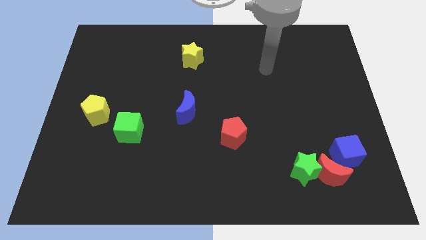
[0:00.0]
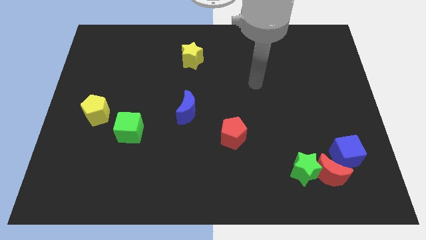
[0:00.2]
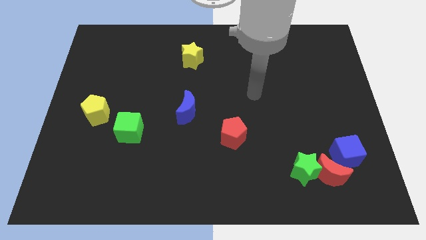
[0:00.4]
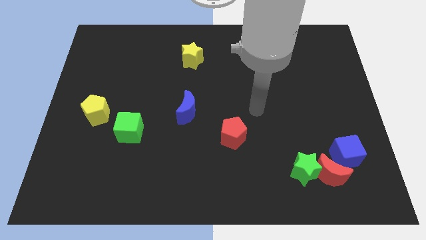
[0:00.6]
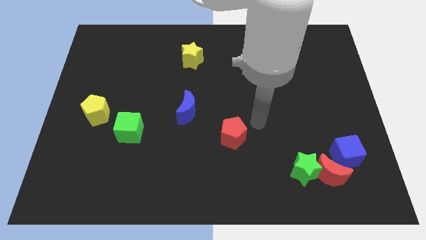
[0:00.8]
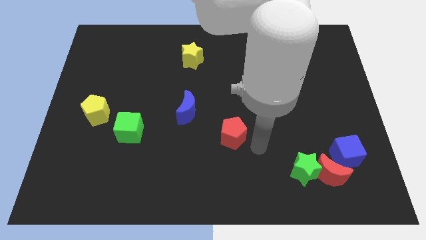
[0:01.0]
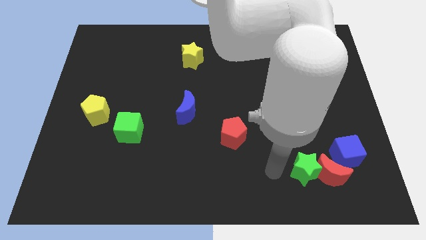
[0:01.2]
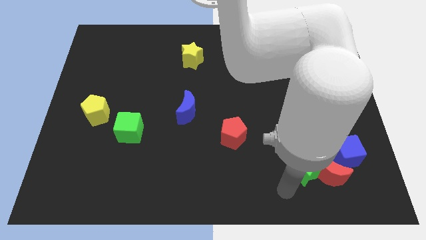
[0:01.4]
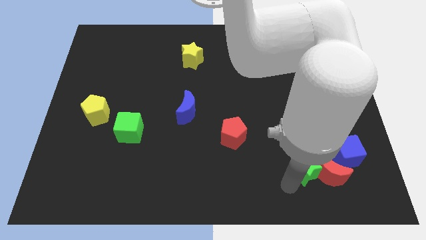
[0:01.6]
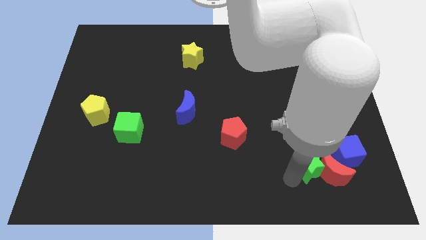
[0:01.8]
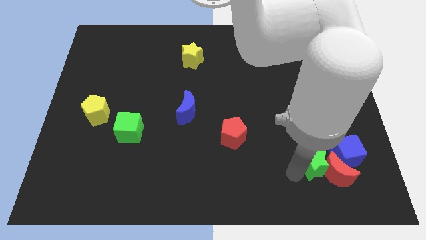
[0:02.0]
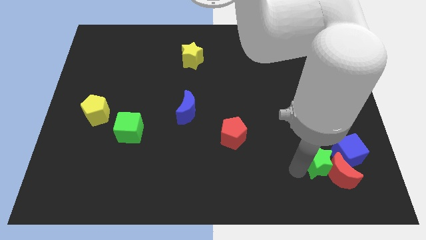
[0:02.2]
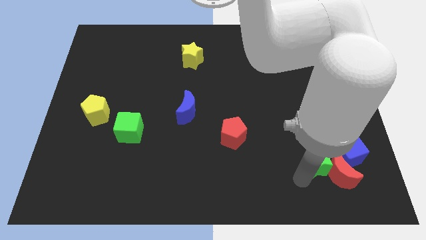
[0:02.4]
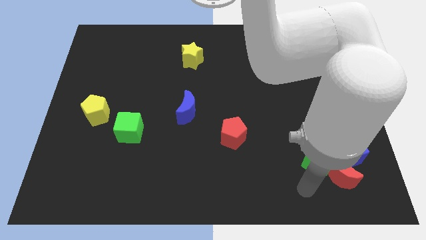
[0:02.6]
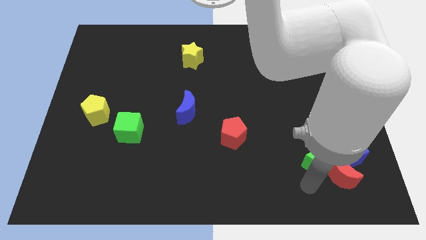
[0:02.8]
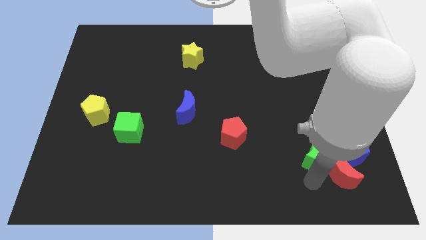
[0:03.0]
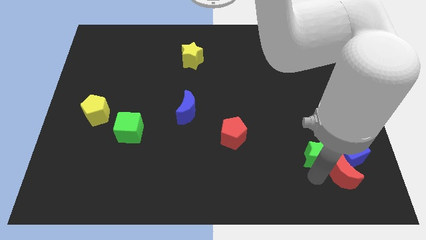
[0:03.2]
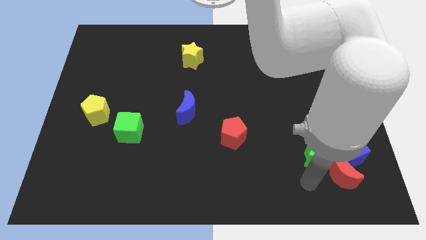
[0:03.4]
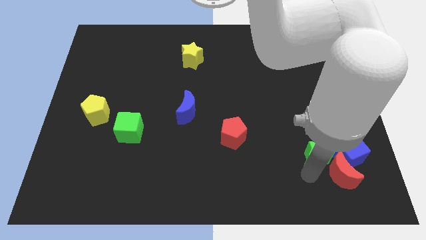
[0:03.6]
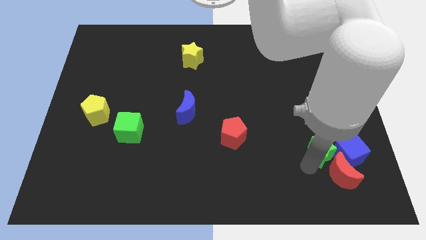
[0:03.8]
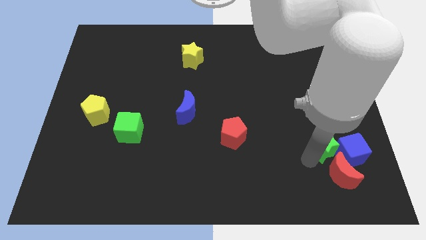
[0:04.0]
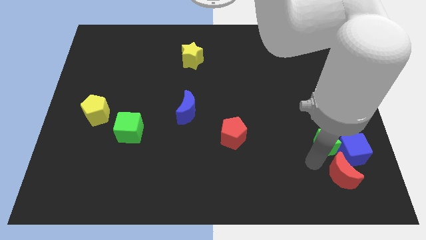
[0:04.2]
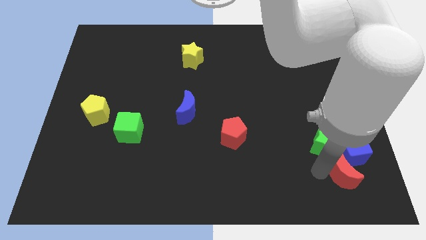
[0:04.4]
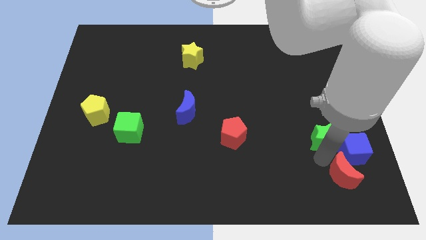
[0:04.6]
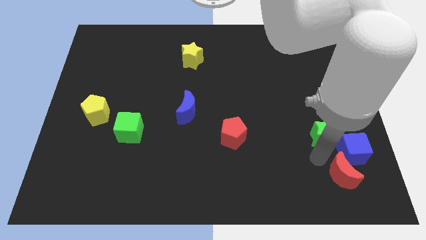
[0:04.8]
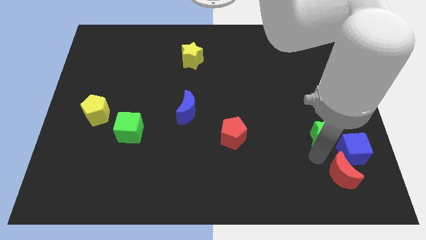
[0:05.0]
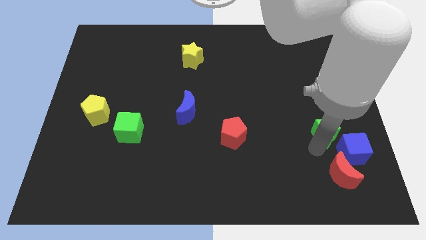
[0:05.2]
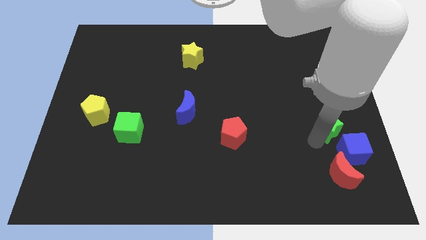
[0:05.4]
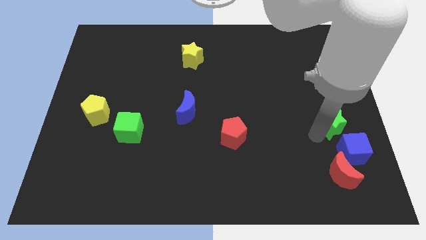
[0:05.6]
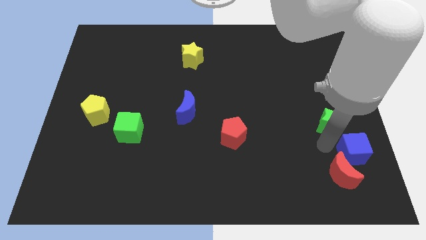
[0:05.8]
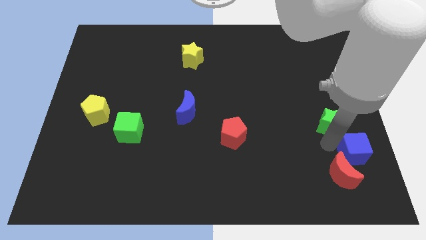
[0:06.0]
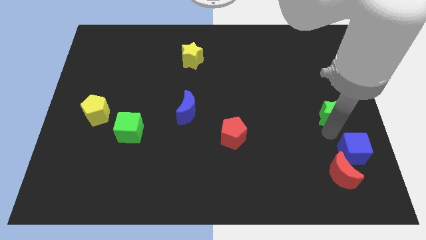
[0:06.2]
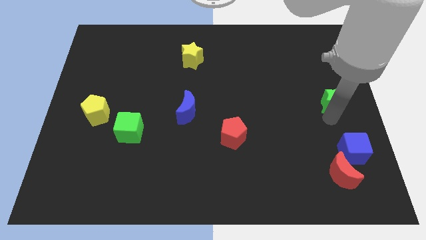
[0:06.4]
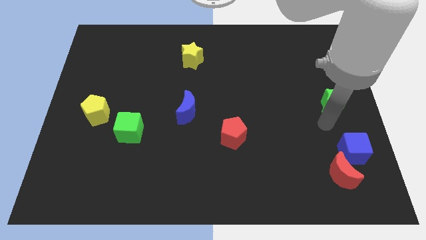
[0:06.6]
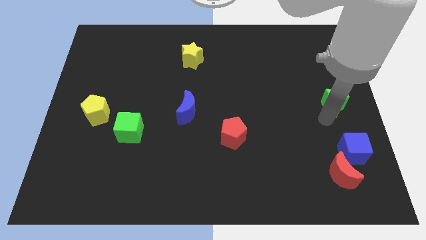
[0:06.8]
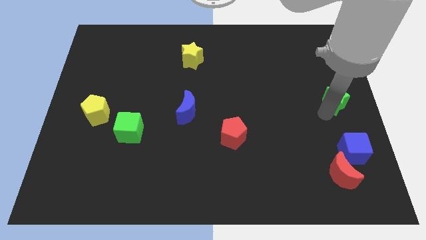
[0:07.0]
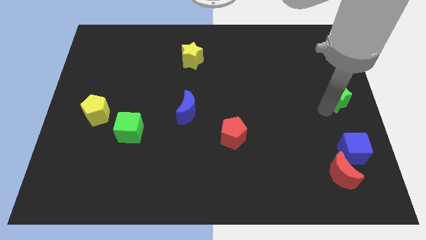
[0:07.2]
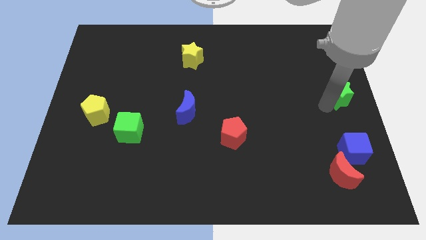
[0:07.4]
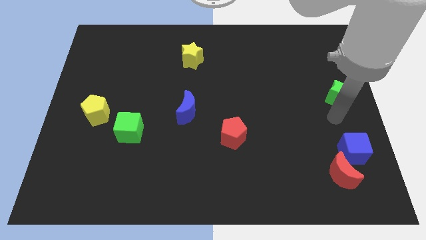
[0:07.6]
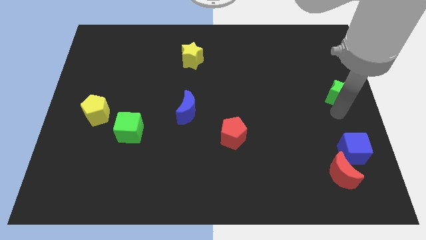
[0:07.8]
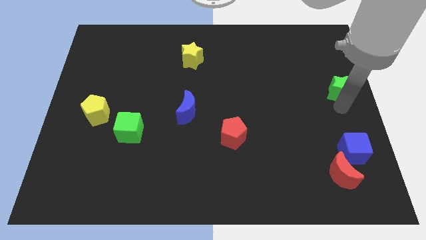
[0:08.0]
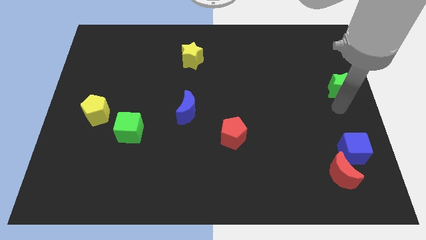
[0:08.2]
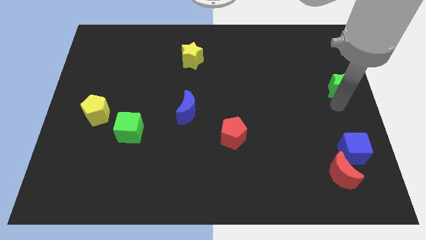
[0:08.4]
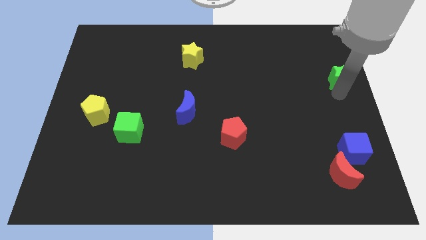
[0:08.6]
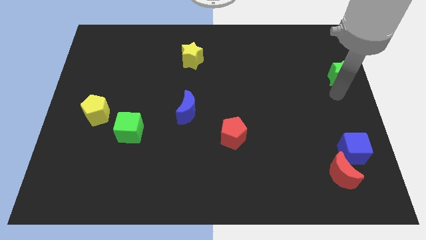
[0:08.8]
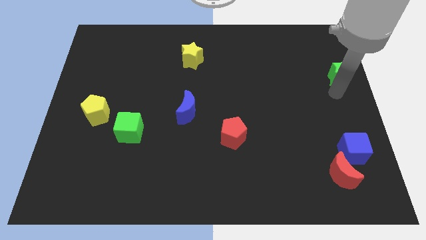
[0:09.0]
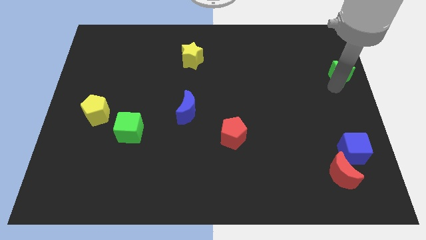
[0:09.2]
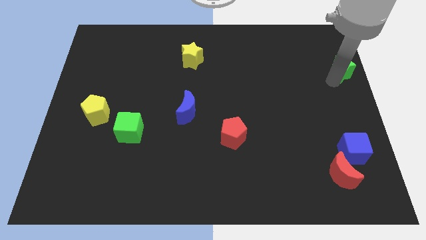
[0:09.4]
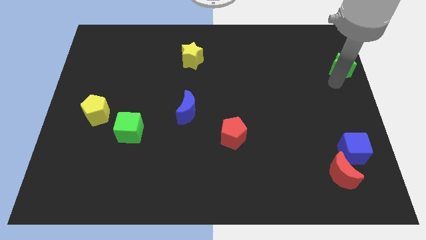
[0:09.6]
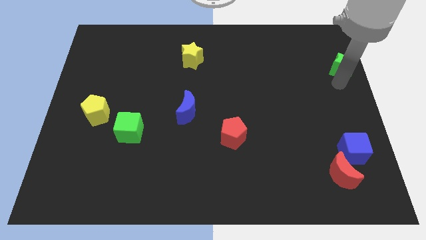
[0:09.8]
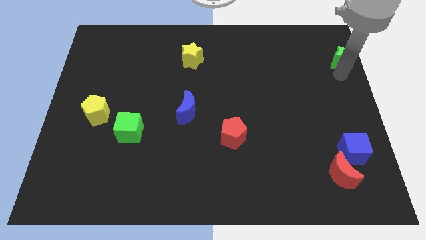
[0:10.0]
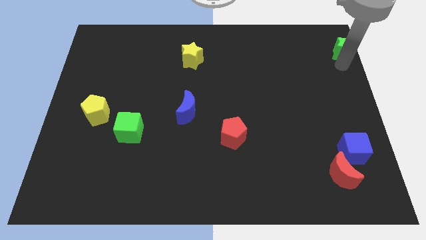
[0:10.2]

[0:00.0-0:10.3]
put the green star to the upper right corner

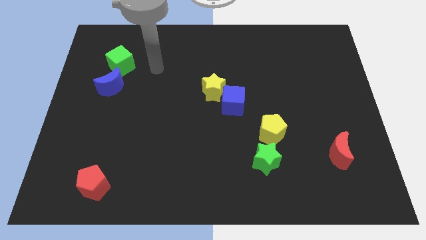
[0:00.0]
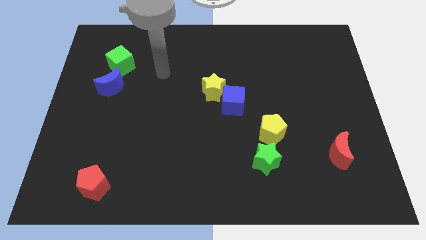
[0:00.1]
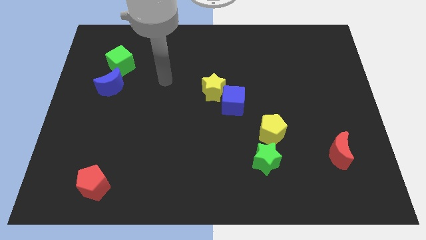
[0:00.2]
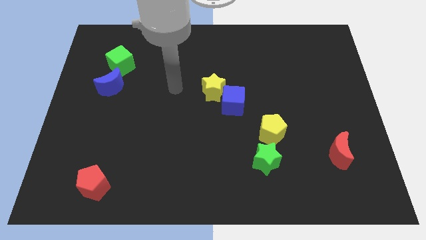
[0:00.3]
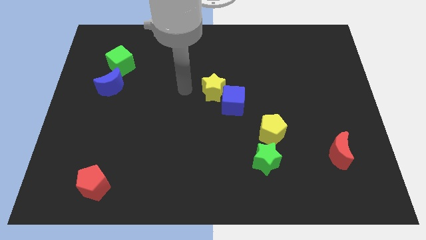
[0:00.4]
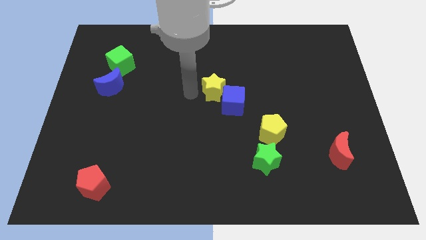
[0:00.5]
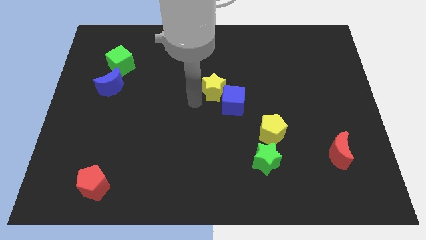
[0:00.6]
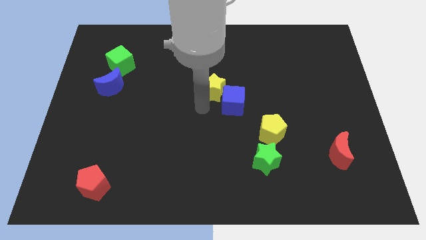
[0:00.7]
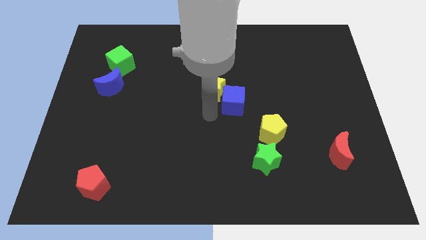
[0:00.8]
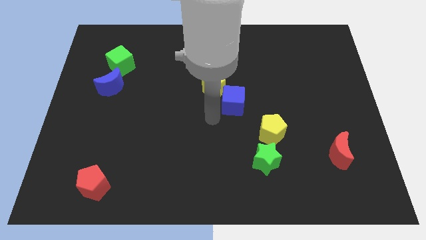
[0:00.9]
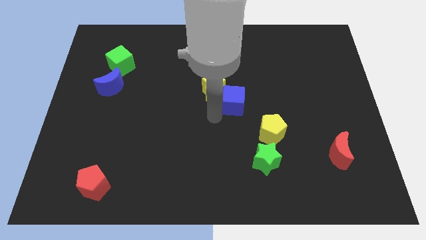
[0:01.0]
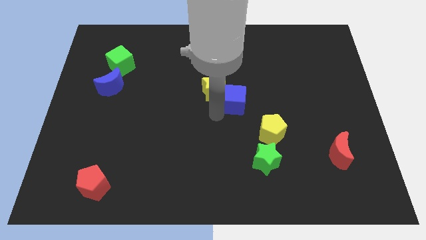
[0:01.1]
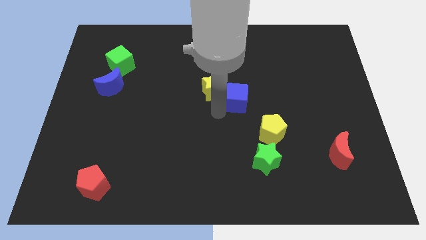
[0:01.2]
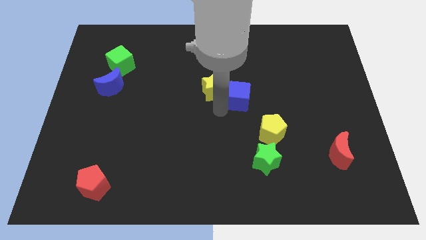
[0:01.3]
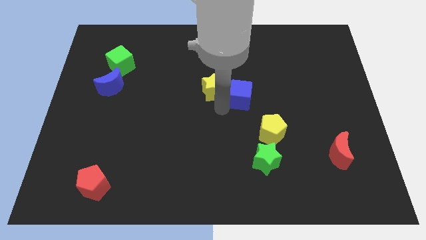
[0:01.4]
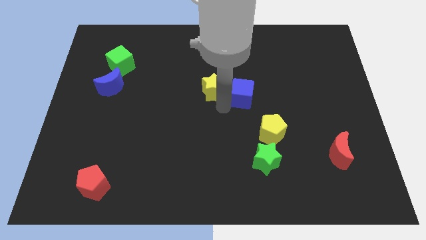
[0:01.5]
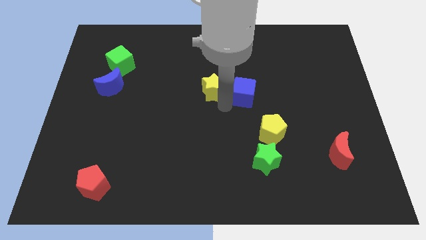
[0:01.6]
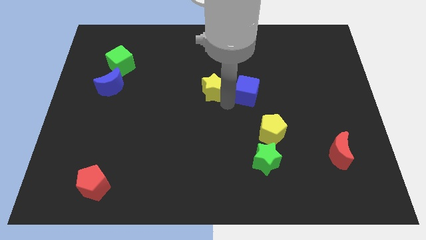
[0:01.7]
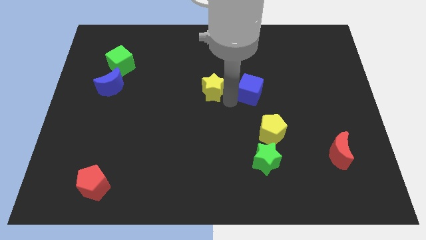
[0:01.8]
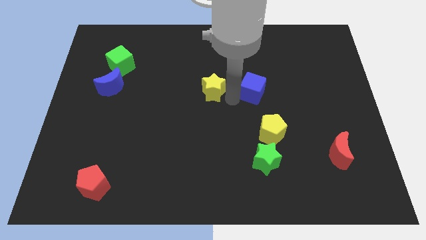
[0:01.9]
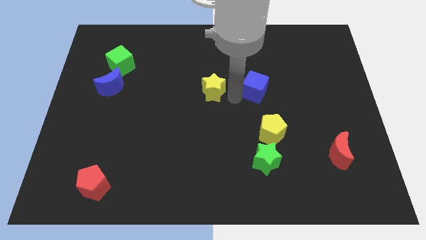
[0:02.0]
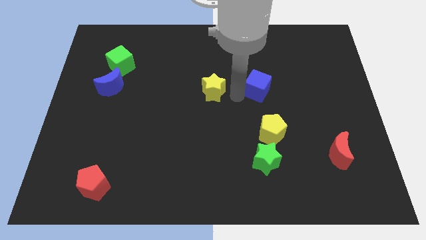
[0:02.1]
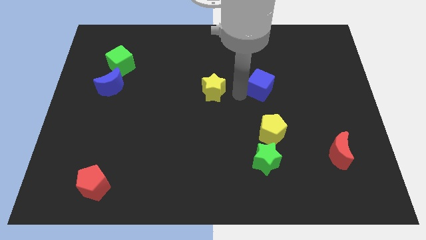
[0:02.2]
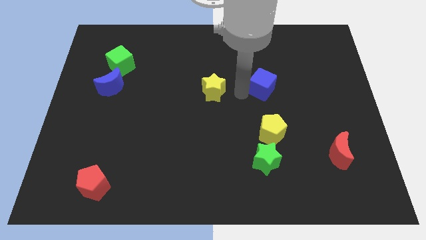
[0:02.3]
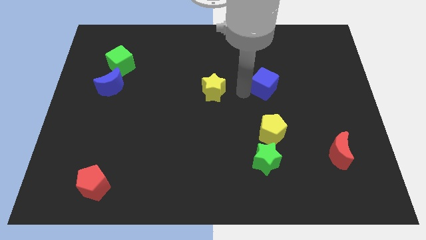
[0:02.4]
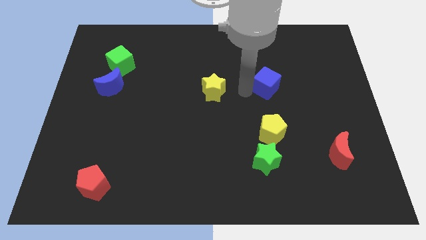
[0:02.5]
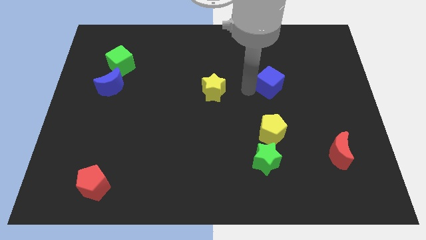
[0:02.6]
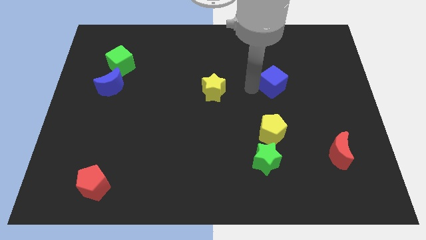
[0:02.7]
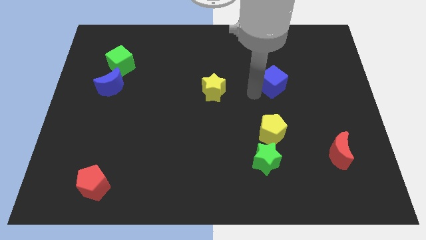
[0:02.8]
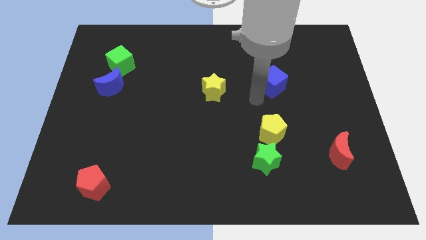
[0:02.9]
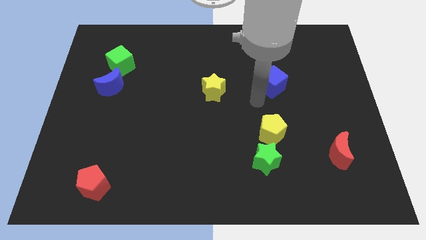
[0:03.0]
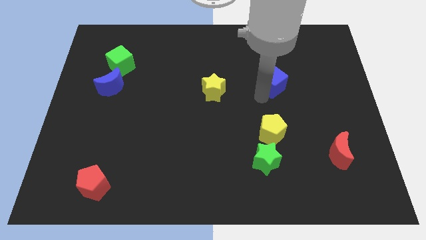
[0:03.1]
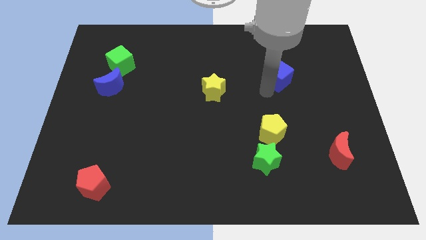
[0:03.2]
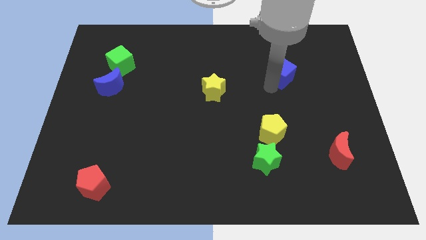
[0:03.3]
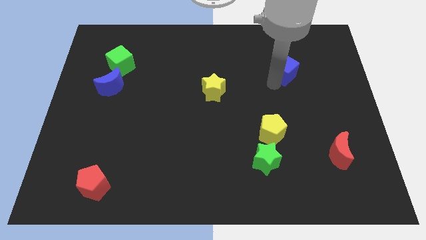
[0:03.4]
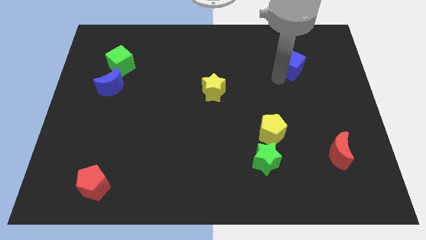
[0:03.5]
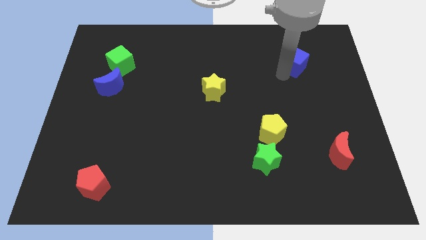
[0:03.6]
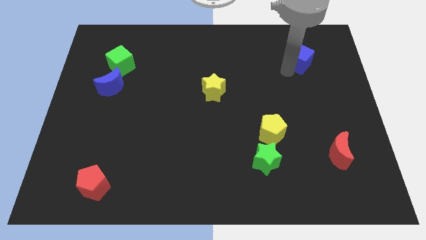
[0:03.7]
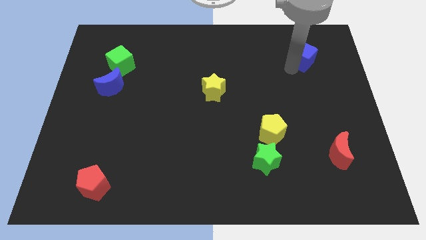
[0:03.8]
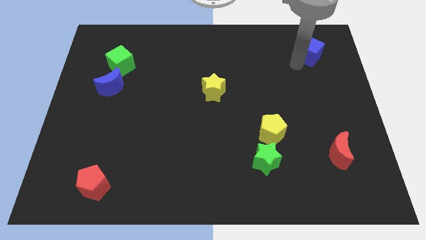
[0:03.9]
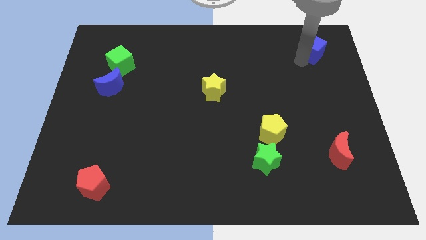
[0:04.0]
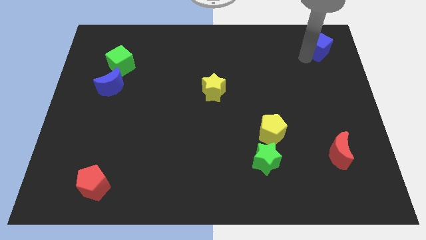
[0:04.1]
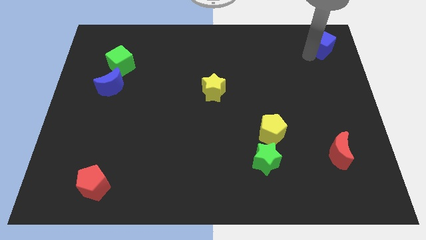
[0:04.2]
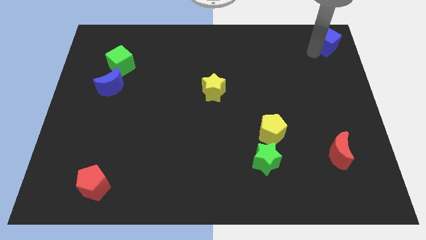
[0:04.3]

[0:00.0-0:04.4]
slide the blue cube to the top right
